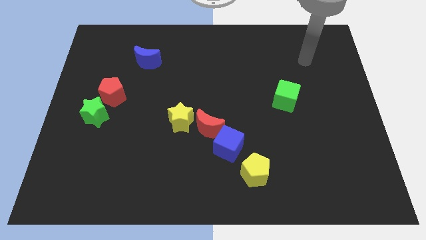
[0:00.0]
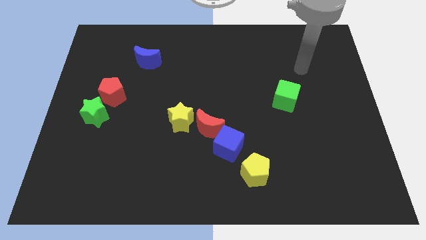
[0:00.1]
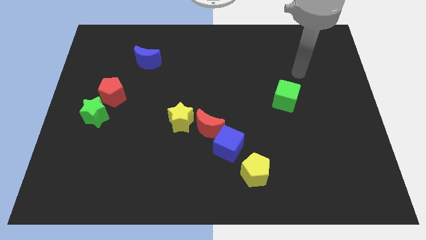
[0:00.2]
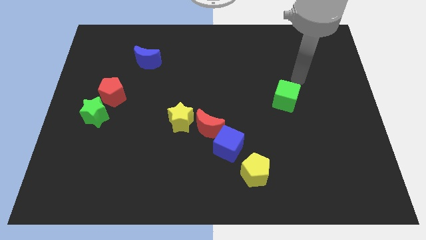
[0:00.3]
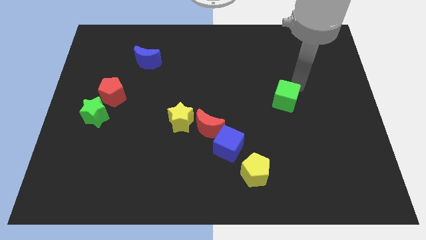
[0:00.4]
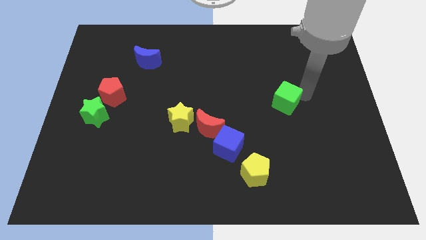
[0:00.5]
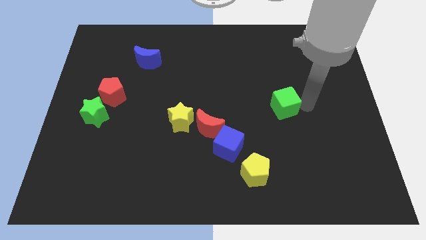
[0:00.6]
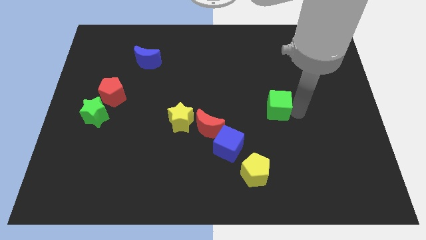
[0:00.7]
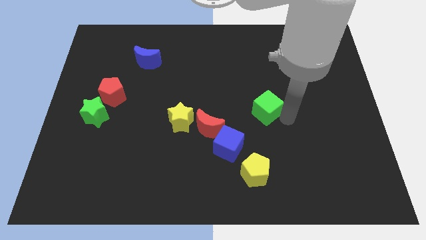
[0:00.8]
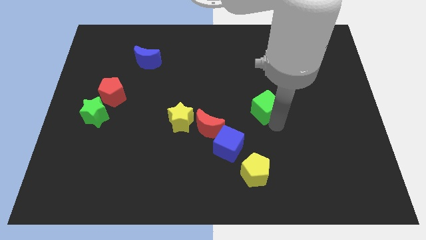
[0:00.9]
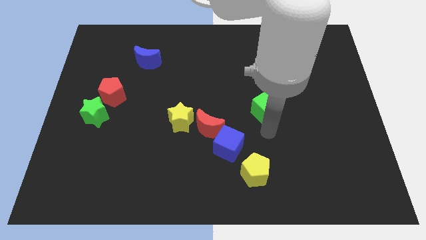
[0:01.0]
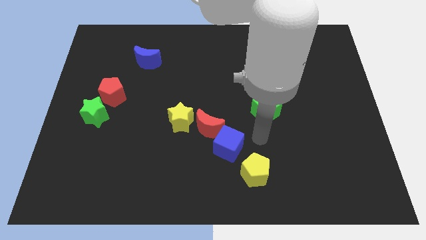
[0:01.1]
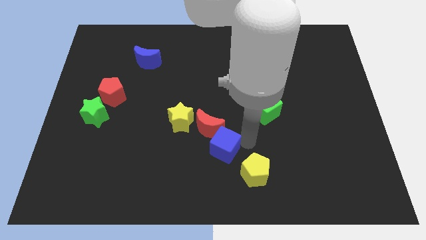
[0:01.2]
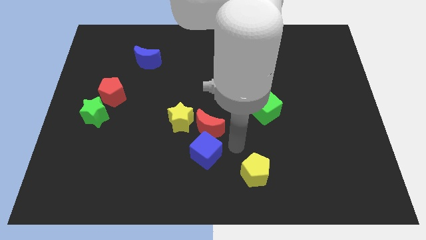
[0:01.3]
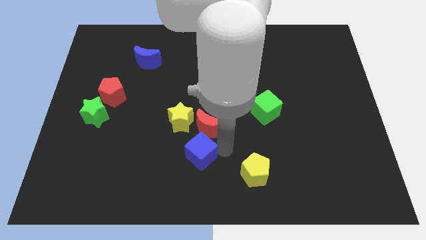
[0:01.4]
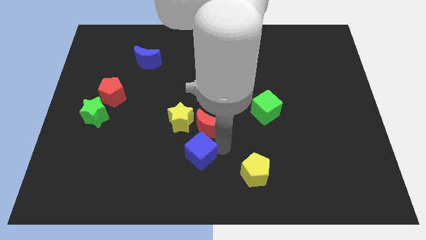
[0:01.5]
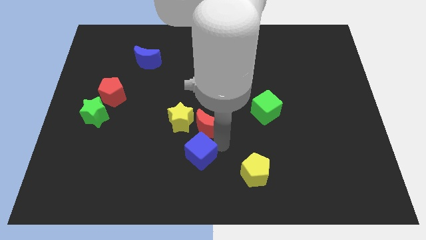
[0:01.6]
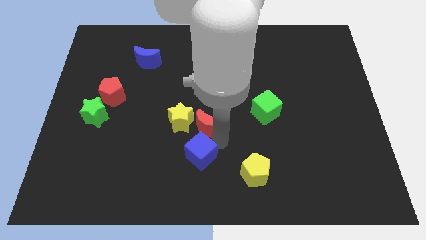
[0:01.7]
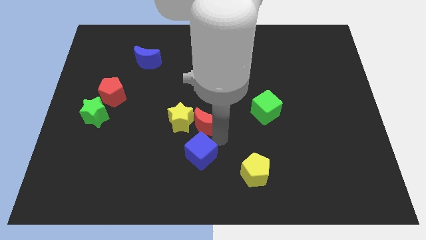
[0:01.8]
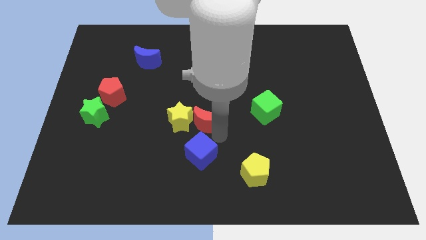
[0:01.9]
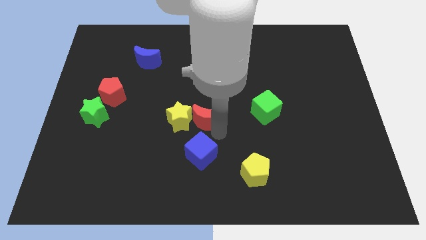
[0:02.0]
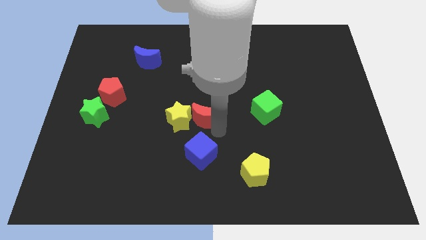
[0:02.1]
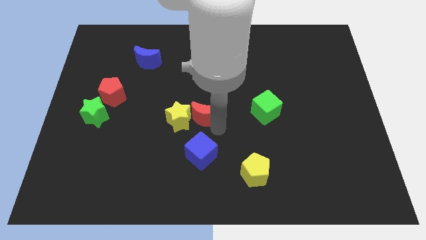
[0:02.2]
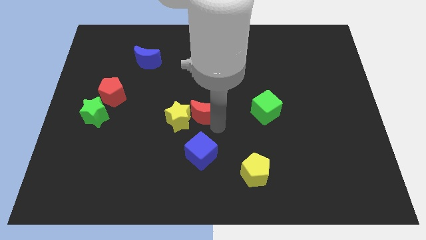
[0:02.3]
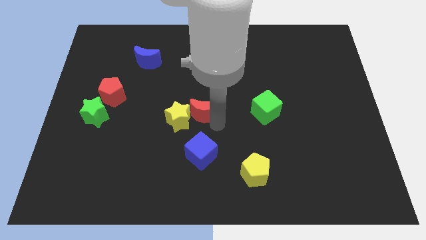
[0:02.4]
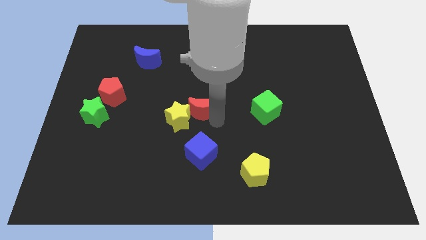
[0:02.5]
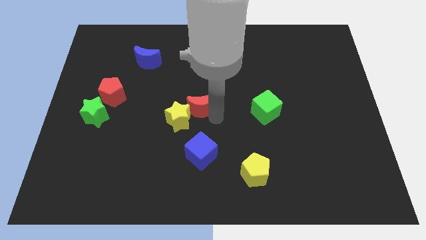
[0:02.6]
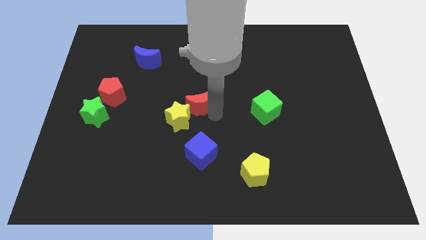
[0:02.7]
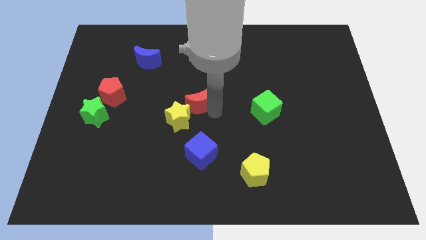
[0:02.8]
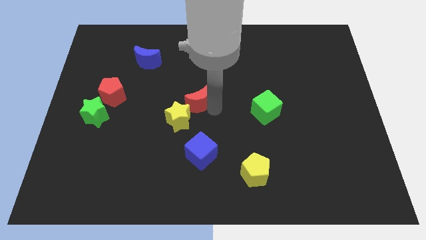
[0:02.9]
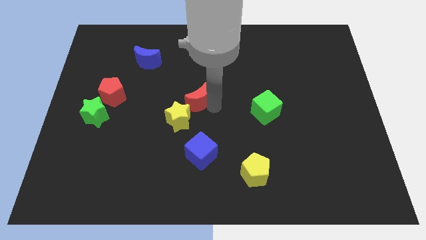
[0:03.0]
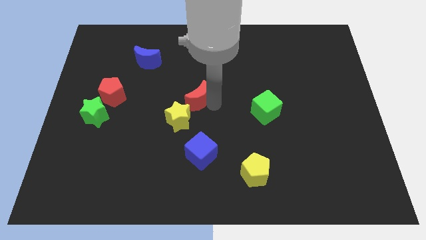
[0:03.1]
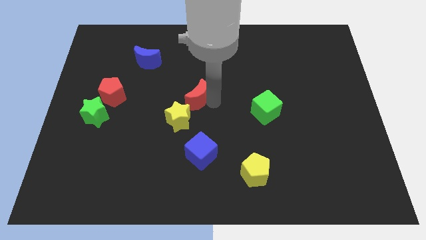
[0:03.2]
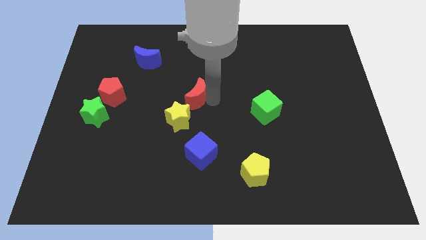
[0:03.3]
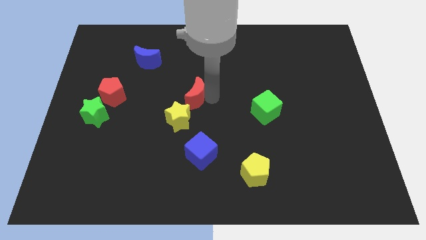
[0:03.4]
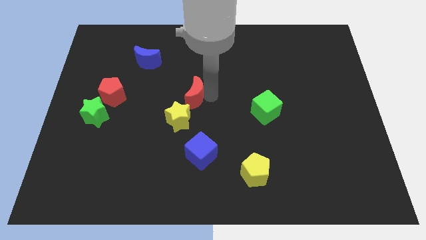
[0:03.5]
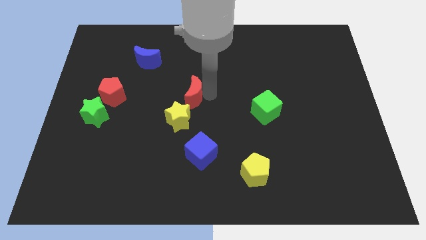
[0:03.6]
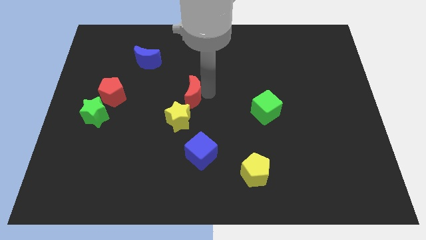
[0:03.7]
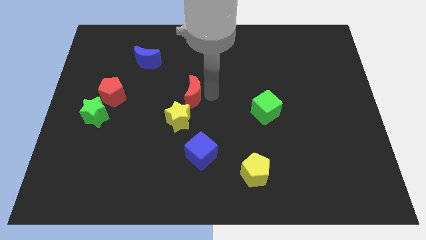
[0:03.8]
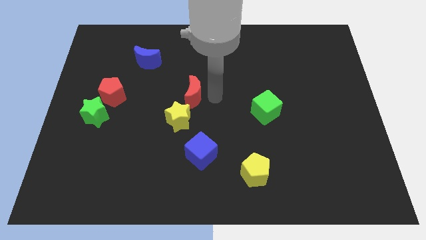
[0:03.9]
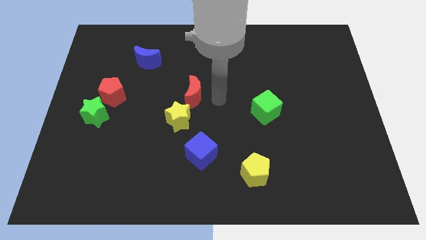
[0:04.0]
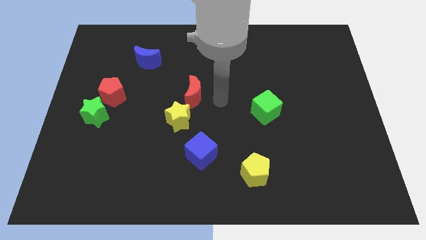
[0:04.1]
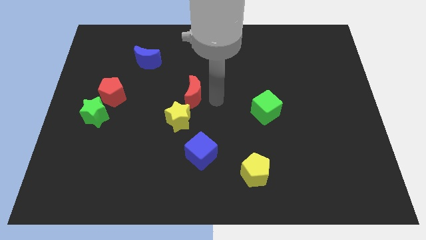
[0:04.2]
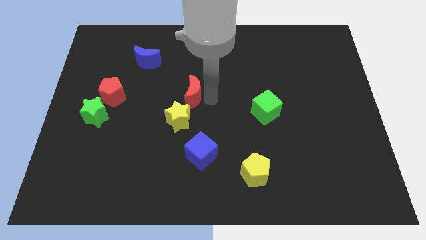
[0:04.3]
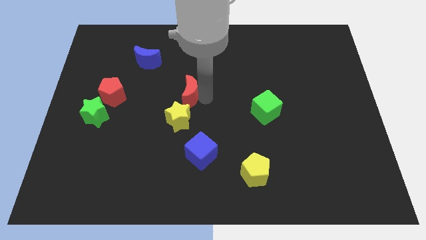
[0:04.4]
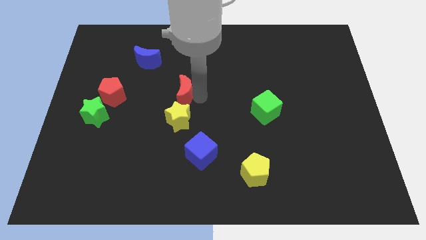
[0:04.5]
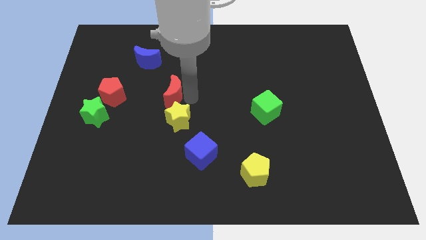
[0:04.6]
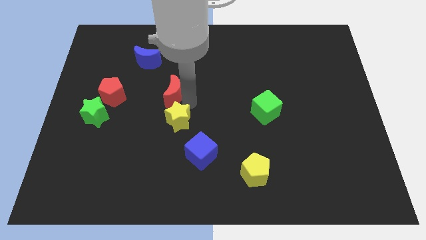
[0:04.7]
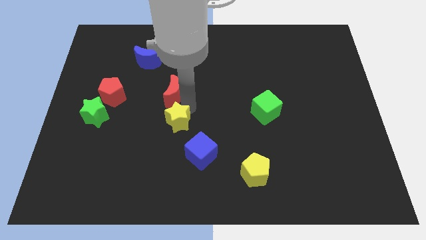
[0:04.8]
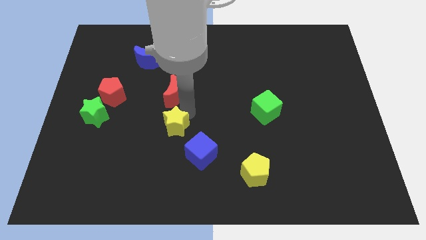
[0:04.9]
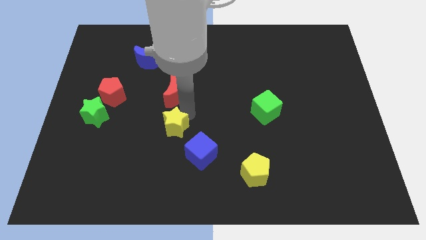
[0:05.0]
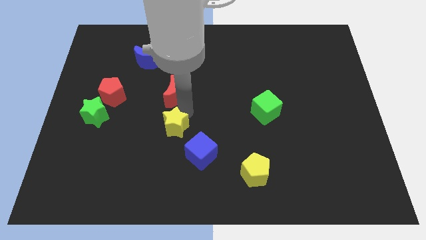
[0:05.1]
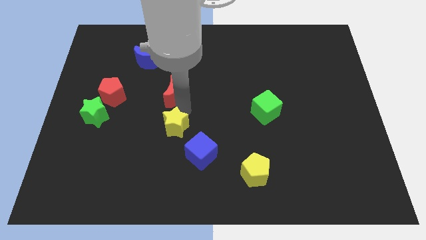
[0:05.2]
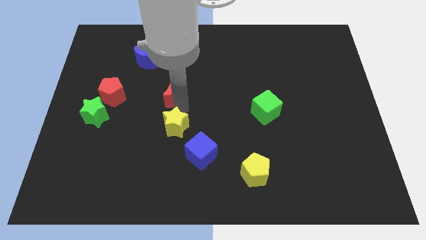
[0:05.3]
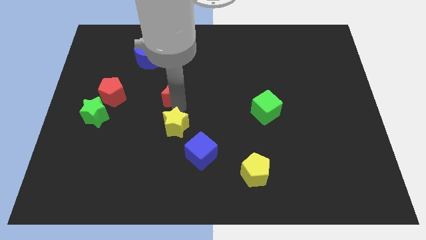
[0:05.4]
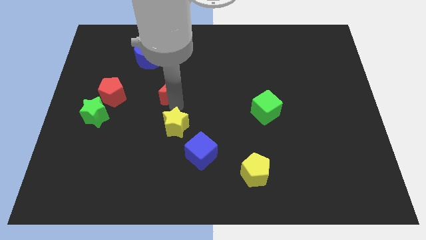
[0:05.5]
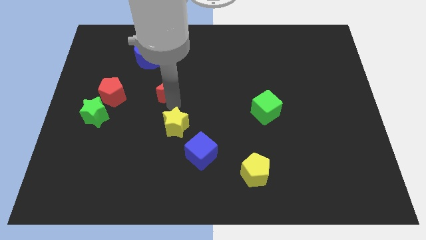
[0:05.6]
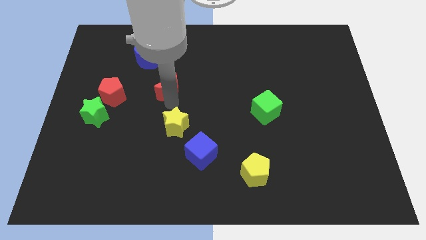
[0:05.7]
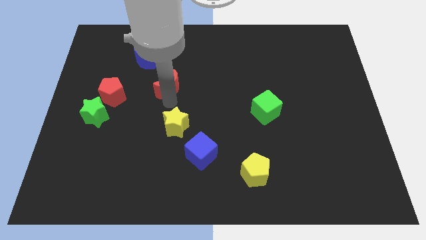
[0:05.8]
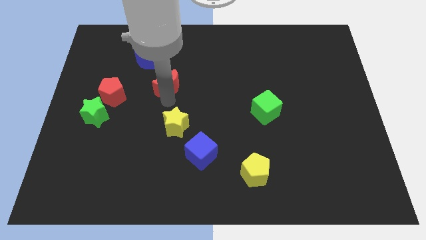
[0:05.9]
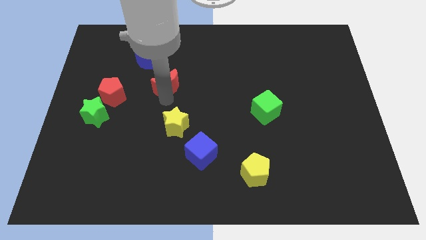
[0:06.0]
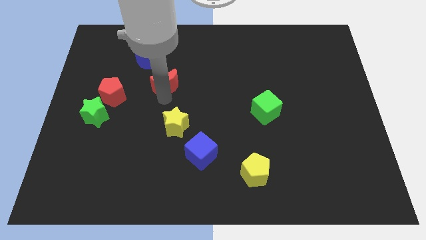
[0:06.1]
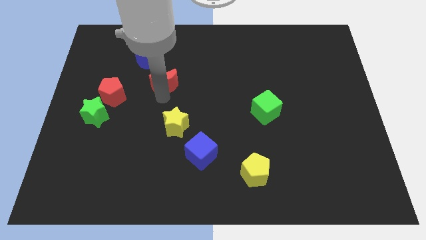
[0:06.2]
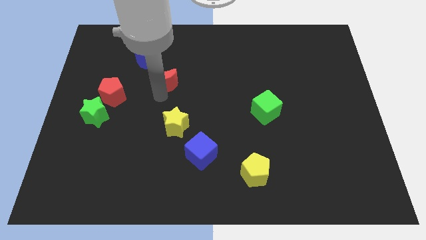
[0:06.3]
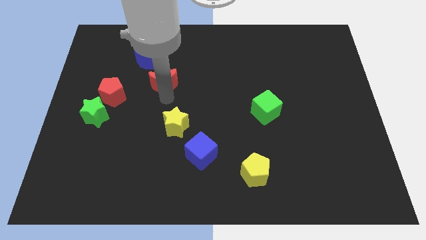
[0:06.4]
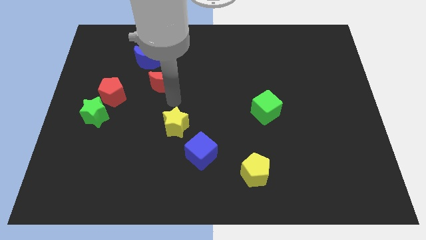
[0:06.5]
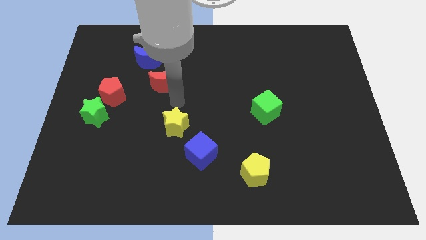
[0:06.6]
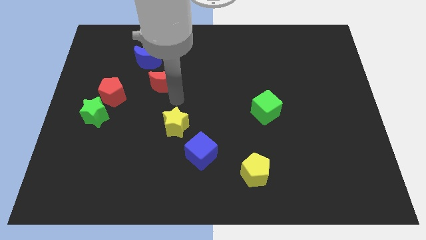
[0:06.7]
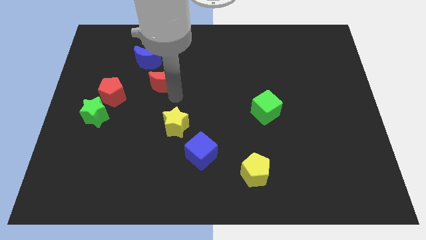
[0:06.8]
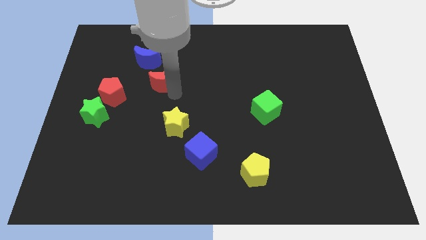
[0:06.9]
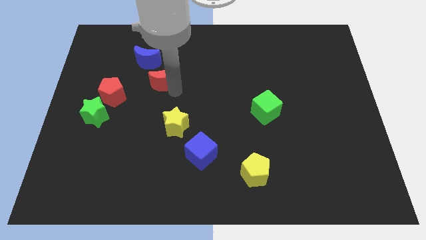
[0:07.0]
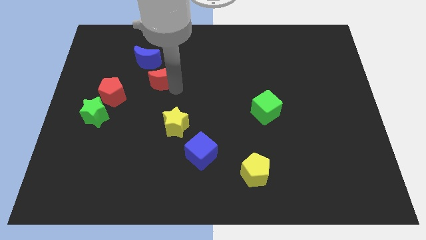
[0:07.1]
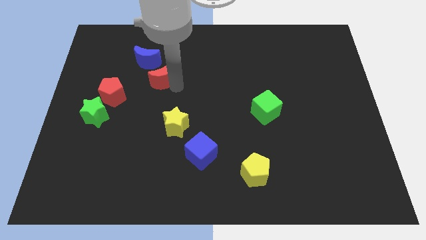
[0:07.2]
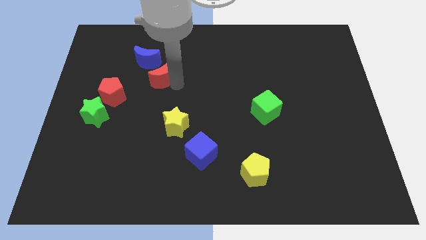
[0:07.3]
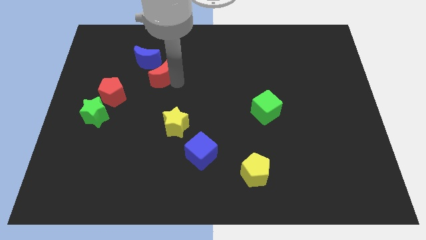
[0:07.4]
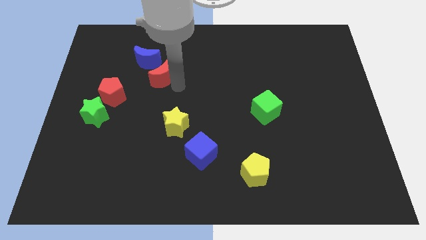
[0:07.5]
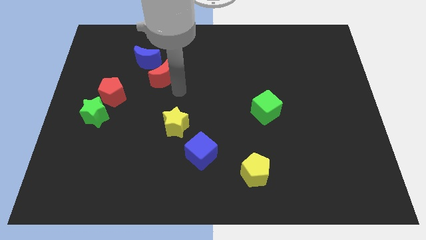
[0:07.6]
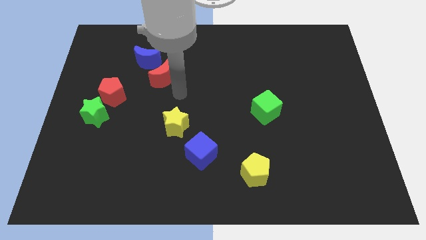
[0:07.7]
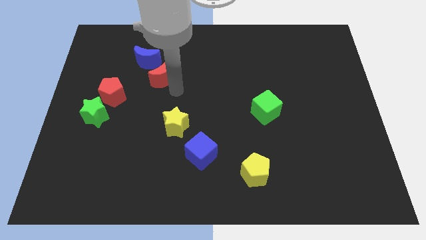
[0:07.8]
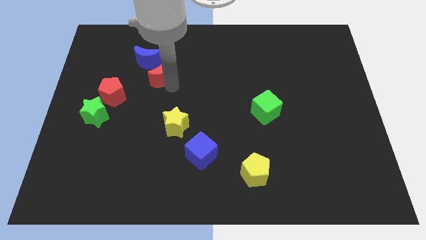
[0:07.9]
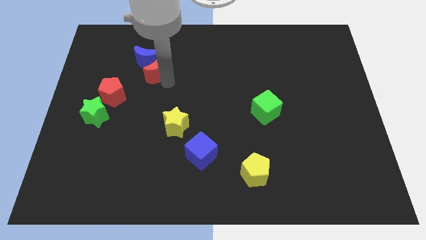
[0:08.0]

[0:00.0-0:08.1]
put the red moon next to the blue moon
